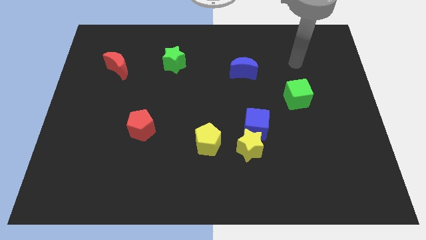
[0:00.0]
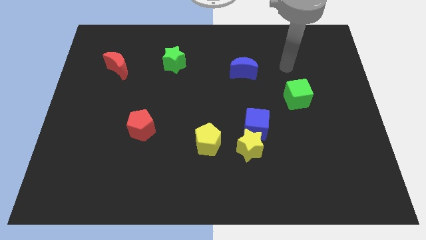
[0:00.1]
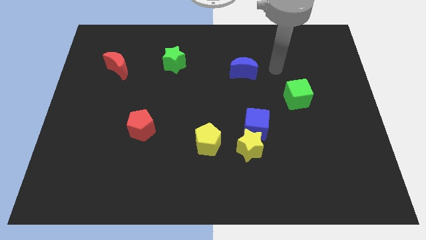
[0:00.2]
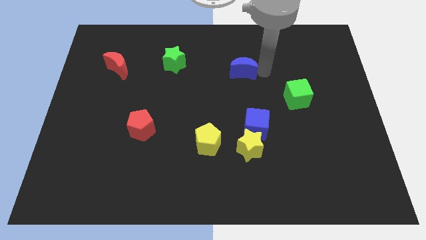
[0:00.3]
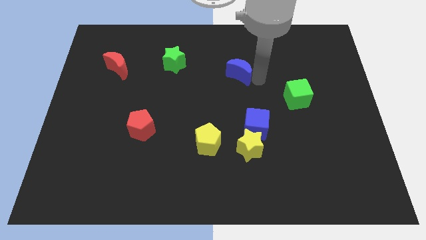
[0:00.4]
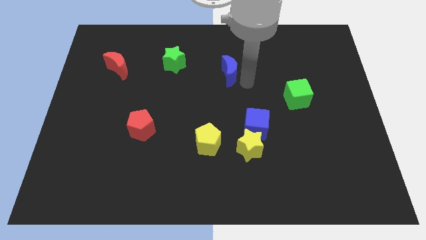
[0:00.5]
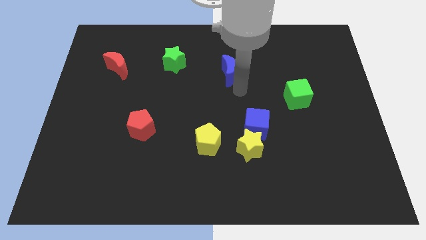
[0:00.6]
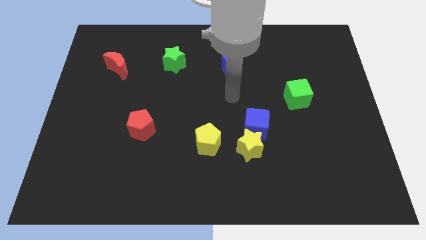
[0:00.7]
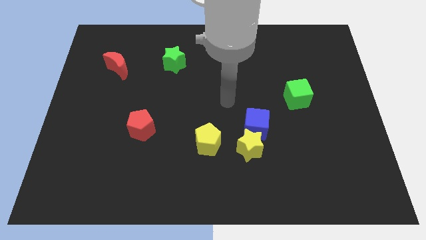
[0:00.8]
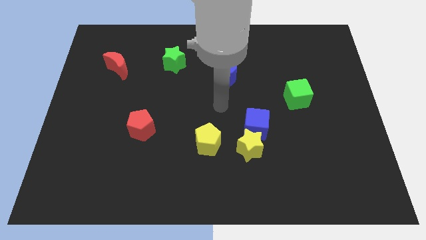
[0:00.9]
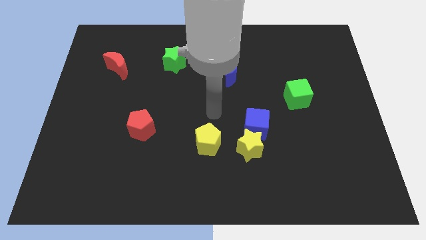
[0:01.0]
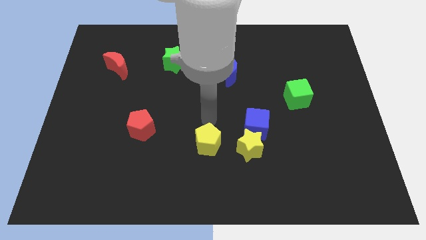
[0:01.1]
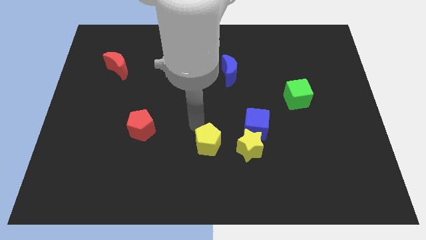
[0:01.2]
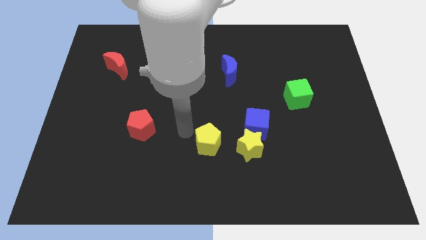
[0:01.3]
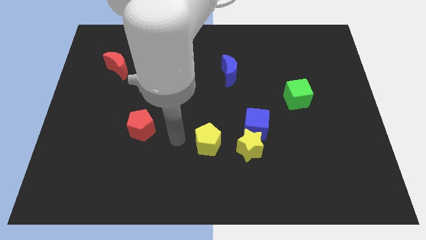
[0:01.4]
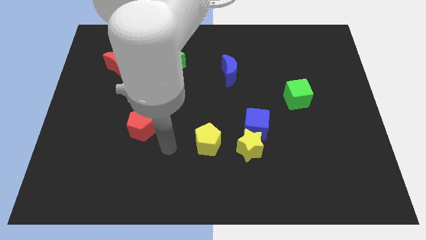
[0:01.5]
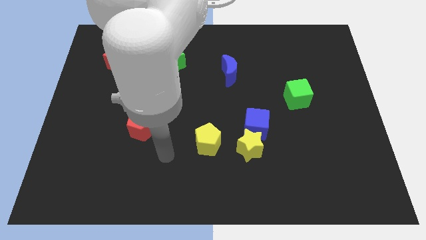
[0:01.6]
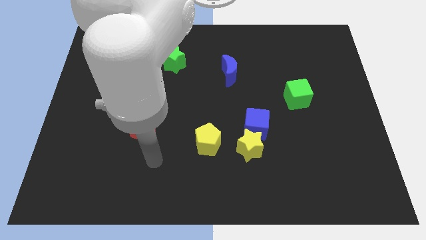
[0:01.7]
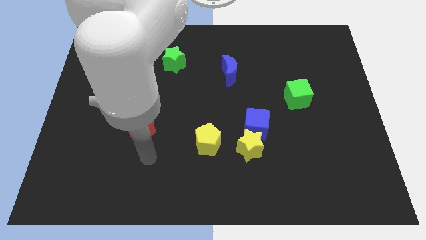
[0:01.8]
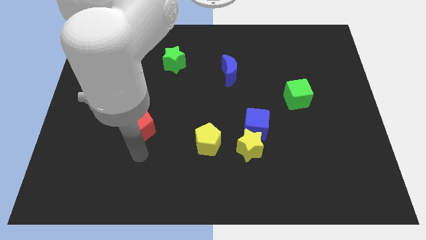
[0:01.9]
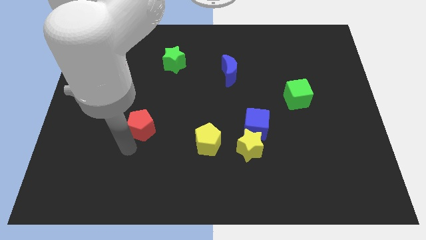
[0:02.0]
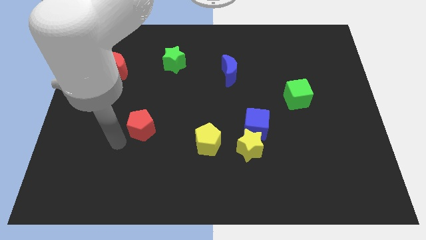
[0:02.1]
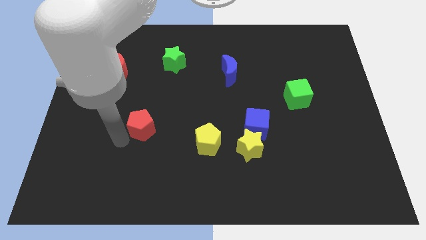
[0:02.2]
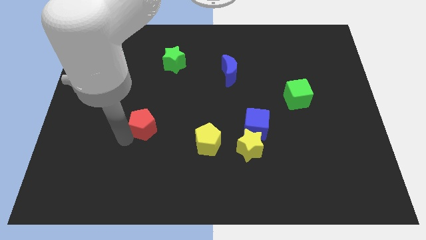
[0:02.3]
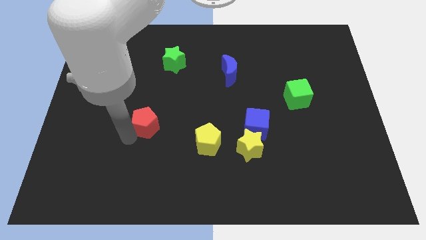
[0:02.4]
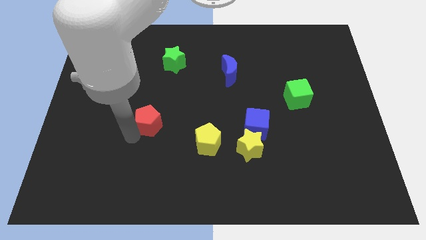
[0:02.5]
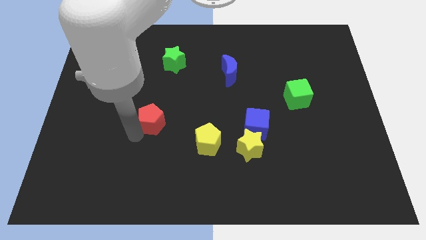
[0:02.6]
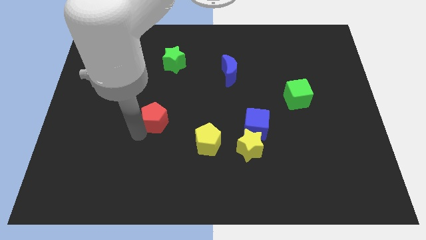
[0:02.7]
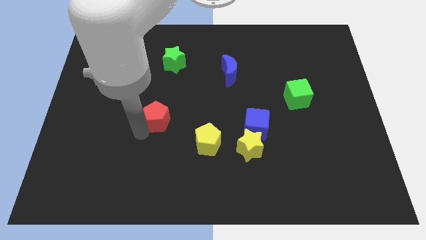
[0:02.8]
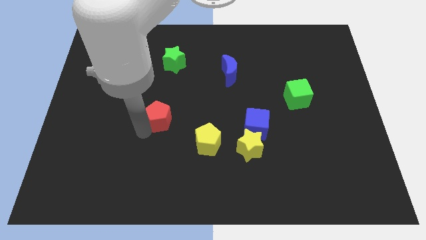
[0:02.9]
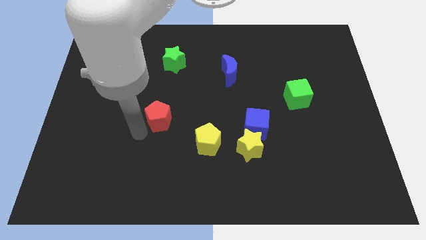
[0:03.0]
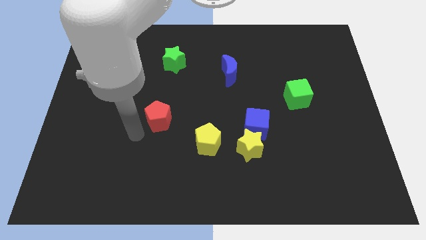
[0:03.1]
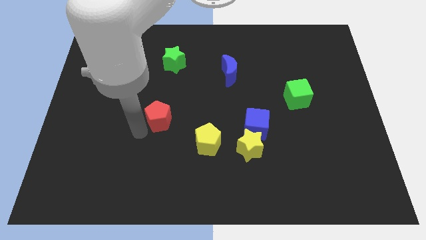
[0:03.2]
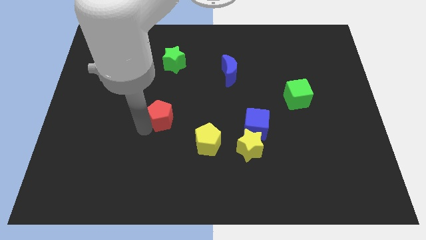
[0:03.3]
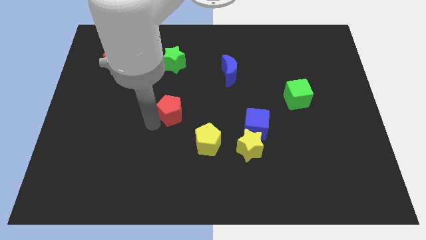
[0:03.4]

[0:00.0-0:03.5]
slide the red pentagon up and then right a bit

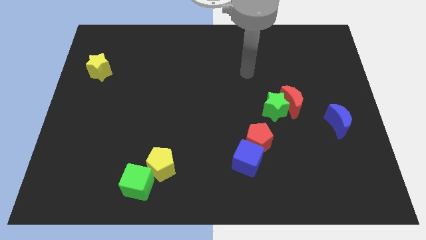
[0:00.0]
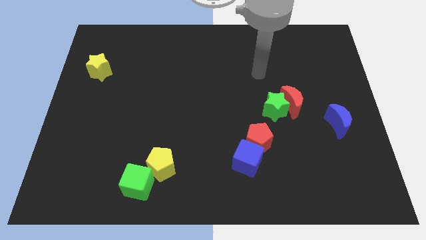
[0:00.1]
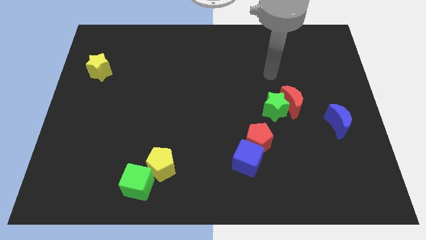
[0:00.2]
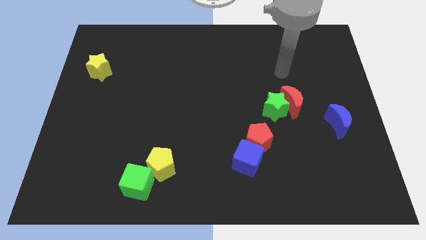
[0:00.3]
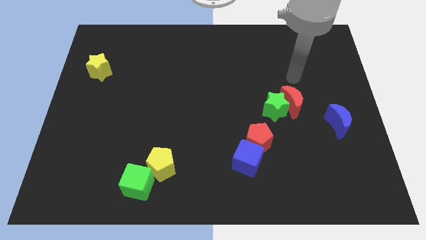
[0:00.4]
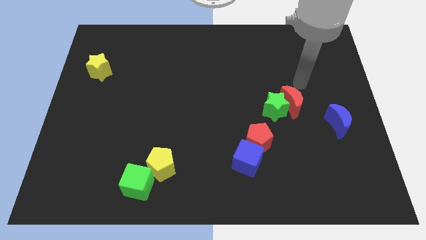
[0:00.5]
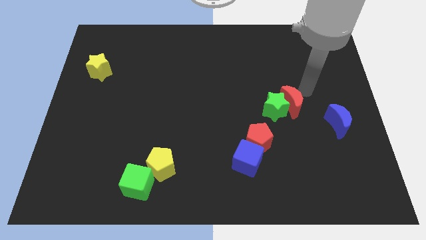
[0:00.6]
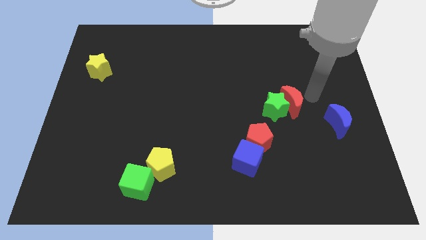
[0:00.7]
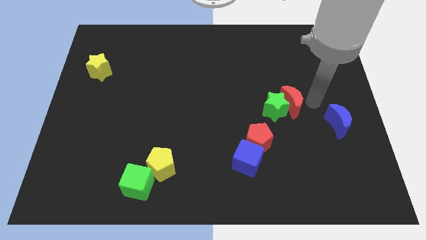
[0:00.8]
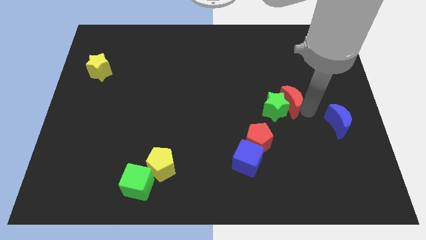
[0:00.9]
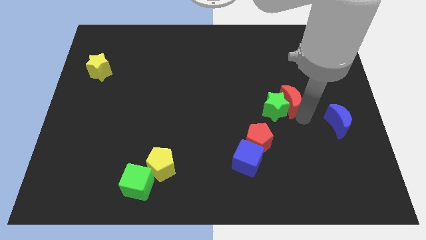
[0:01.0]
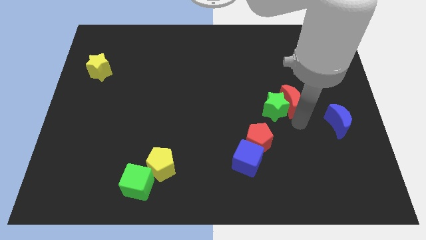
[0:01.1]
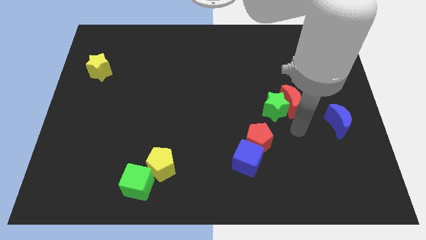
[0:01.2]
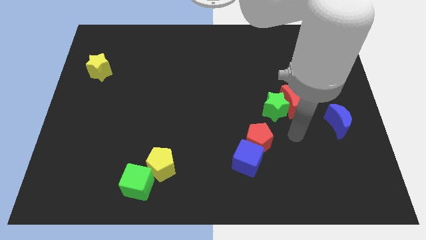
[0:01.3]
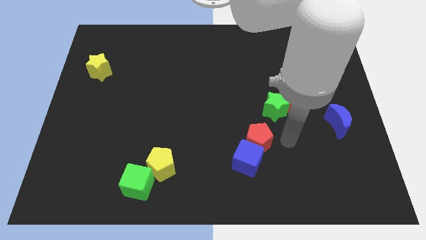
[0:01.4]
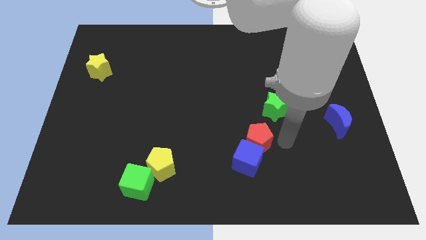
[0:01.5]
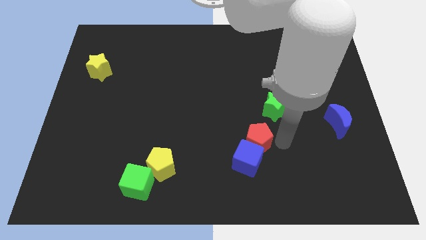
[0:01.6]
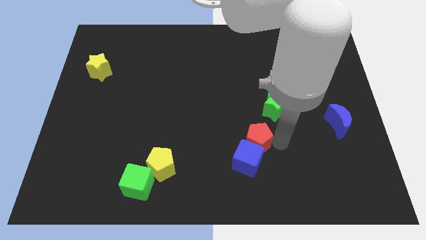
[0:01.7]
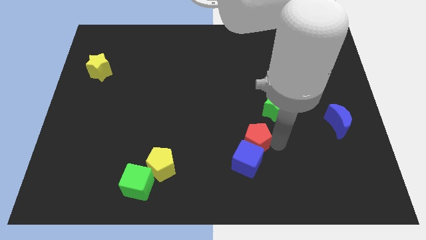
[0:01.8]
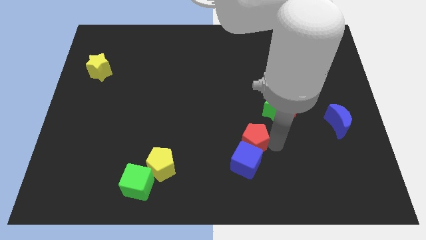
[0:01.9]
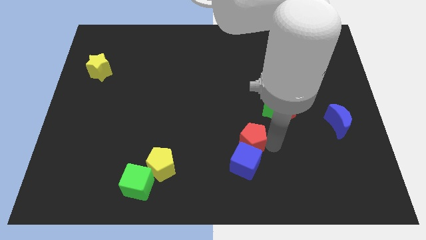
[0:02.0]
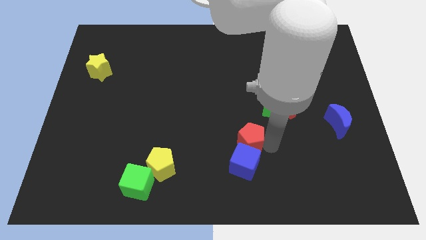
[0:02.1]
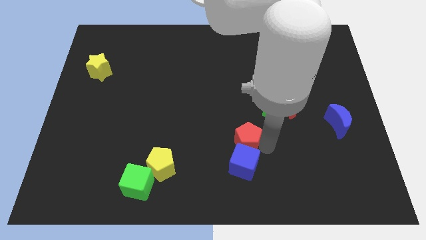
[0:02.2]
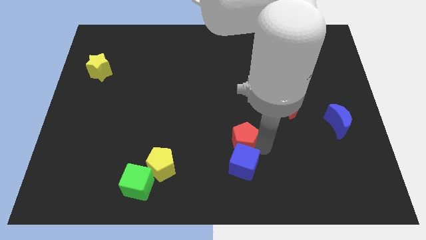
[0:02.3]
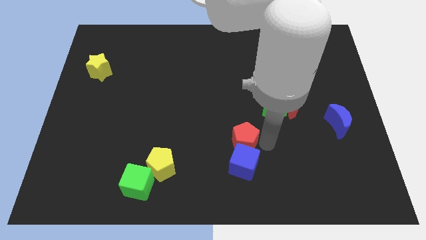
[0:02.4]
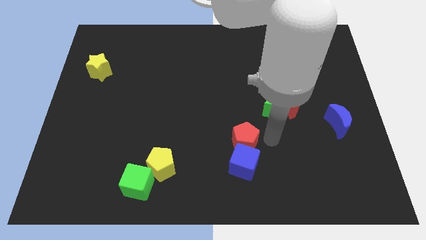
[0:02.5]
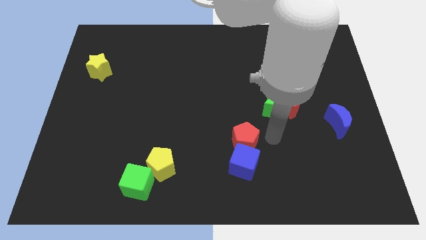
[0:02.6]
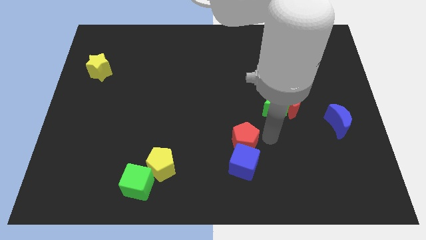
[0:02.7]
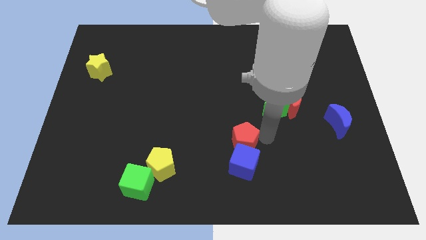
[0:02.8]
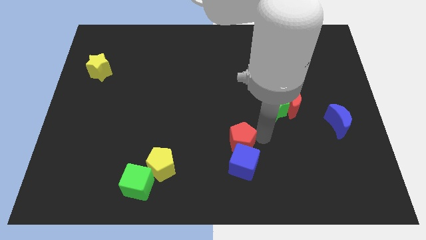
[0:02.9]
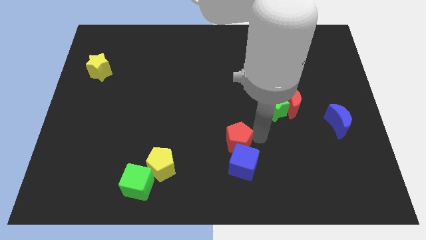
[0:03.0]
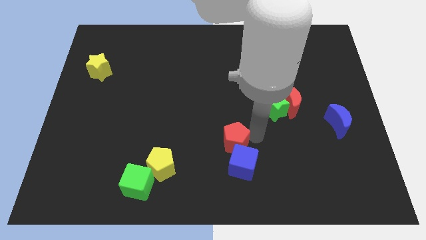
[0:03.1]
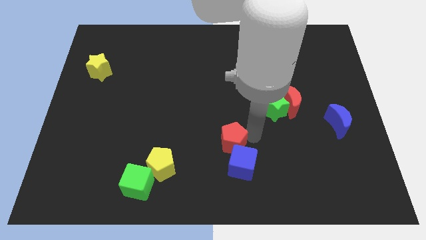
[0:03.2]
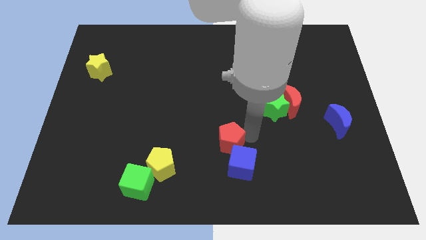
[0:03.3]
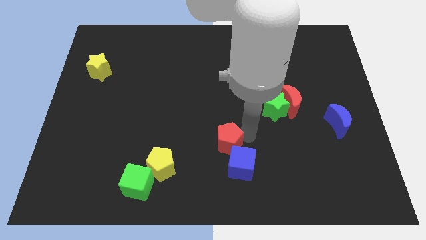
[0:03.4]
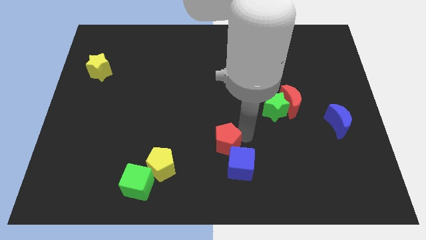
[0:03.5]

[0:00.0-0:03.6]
slide the red pentagon a little left

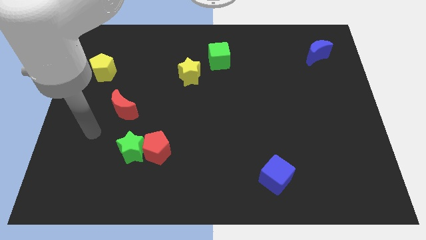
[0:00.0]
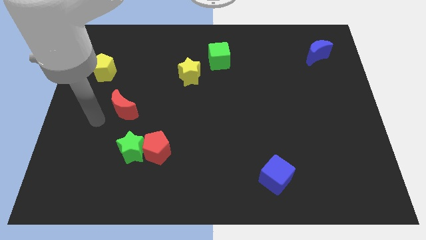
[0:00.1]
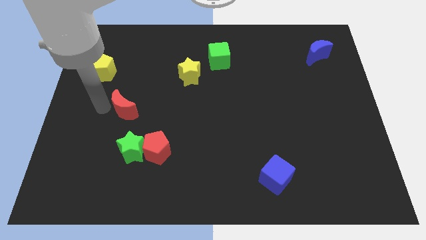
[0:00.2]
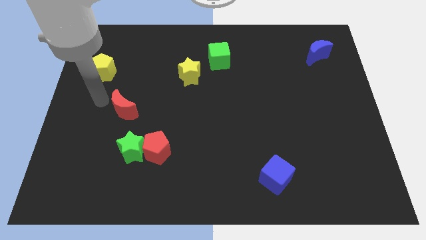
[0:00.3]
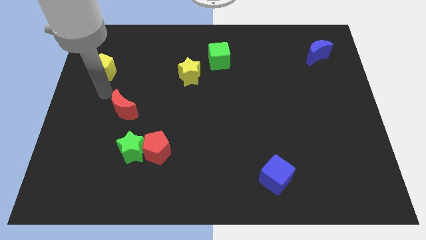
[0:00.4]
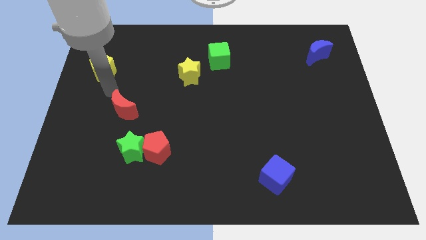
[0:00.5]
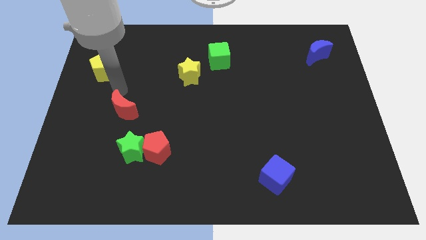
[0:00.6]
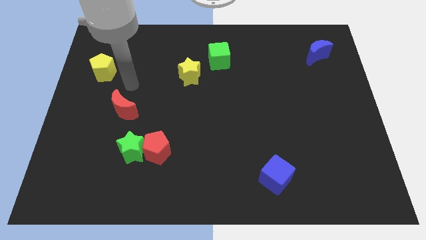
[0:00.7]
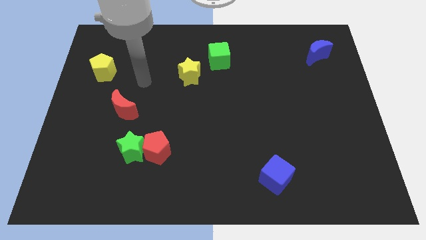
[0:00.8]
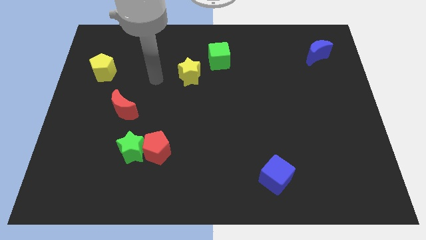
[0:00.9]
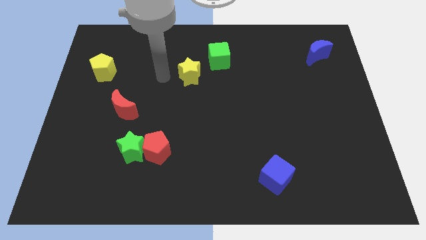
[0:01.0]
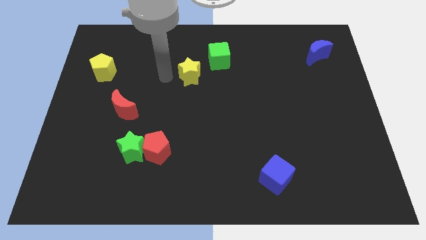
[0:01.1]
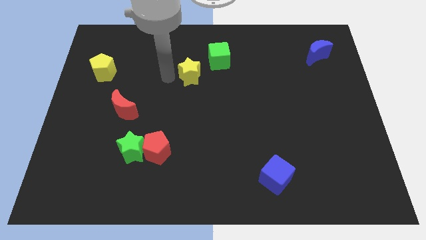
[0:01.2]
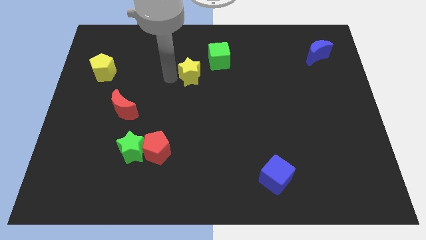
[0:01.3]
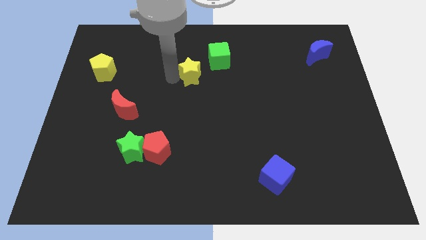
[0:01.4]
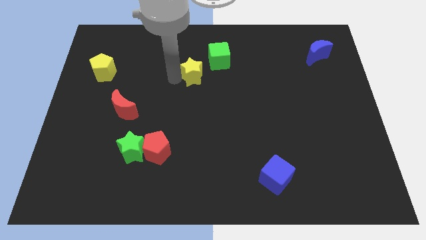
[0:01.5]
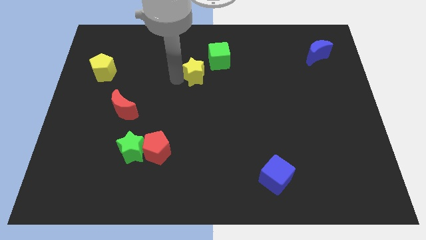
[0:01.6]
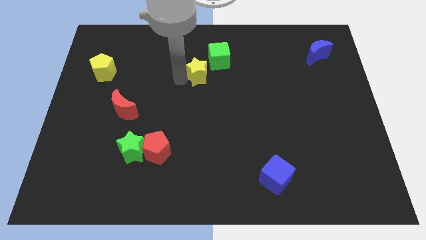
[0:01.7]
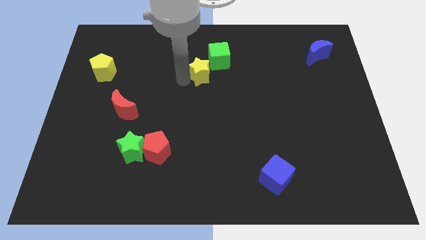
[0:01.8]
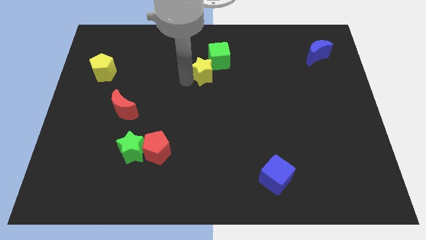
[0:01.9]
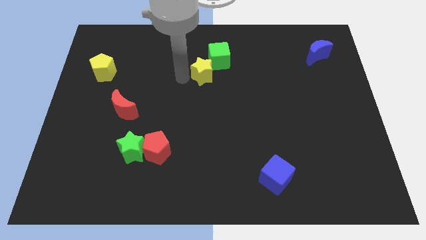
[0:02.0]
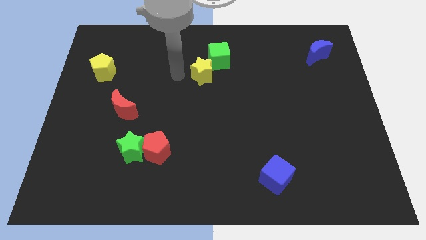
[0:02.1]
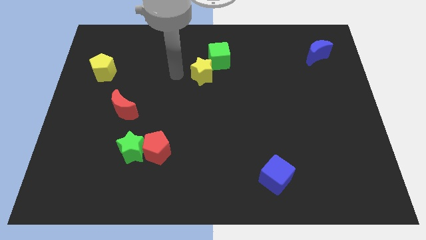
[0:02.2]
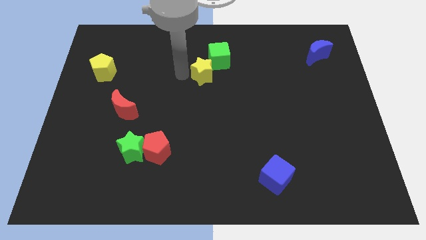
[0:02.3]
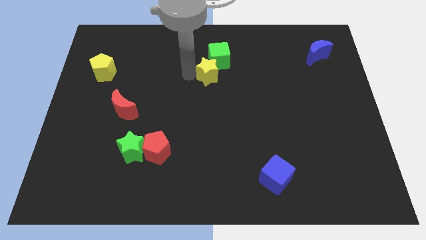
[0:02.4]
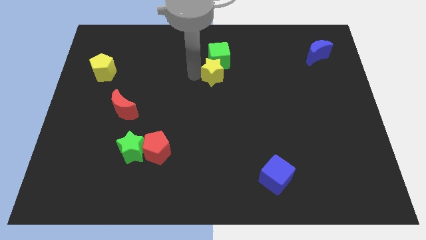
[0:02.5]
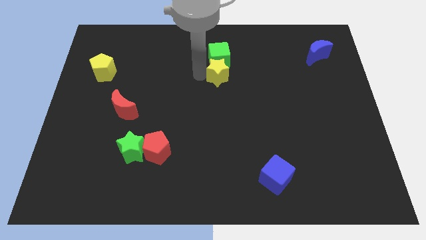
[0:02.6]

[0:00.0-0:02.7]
slightly move the yellow star right
